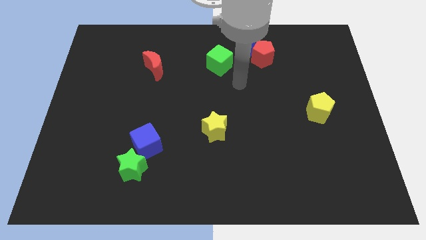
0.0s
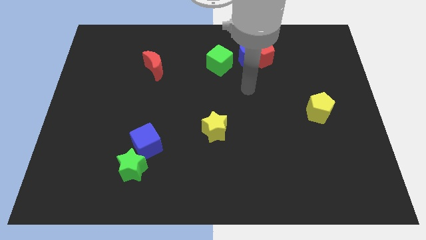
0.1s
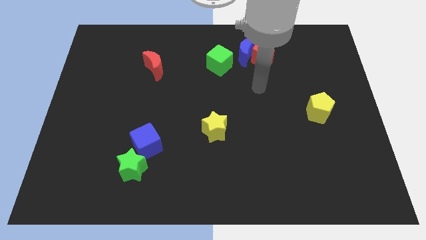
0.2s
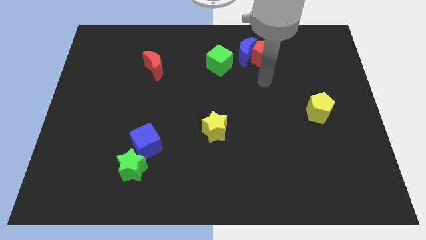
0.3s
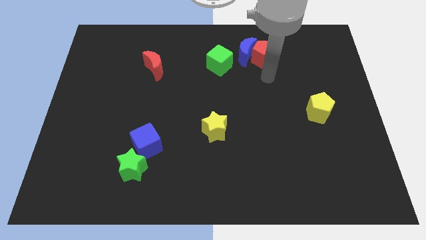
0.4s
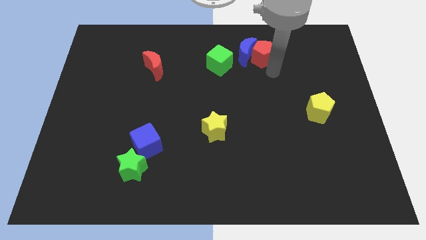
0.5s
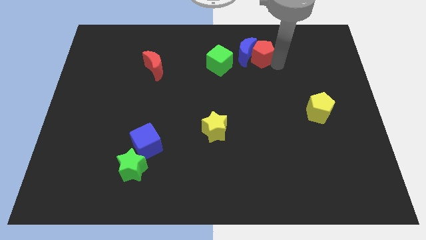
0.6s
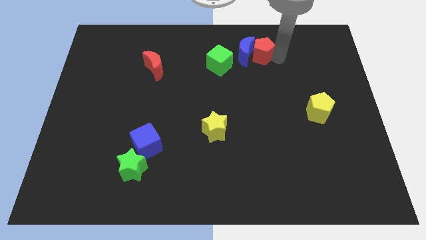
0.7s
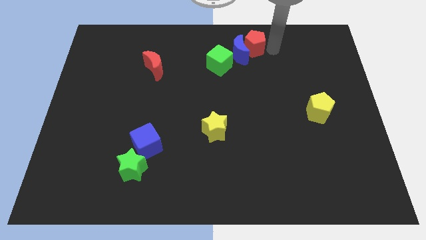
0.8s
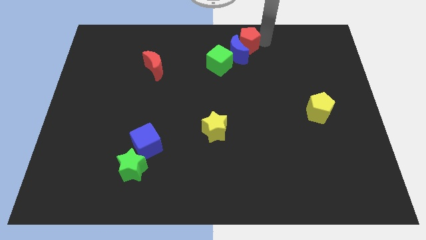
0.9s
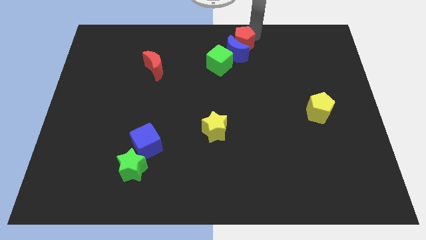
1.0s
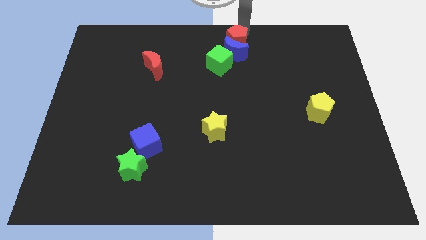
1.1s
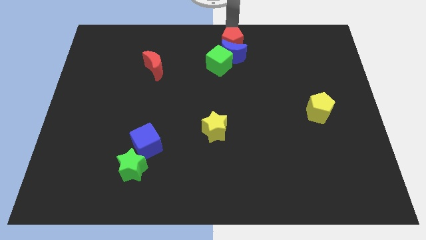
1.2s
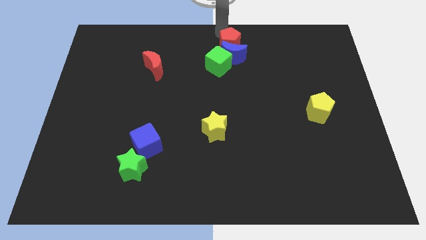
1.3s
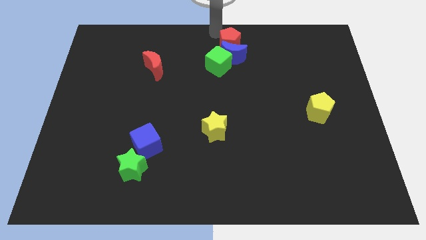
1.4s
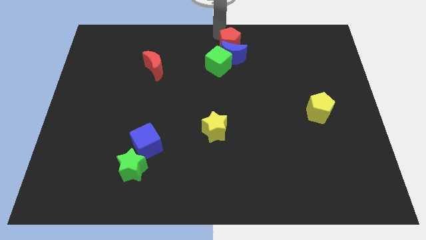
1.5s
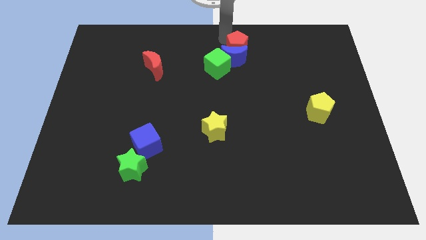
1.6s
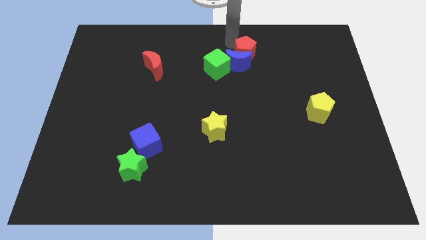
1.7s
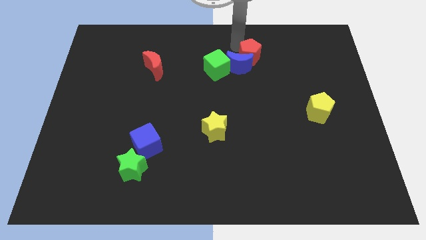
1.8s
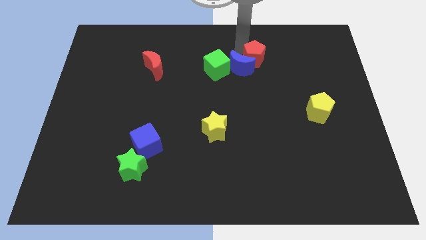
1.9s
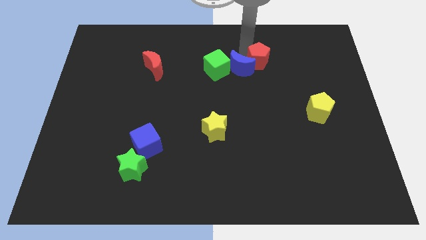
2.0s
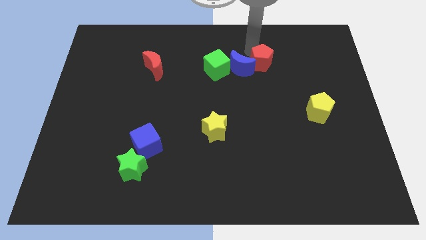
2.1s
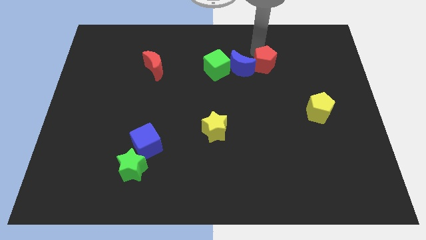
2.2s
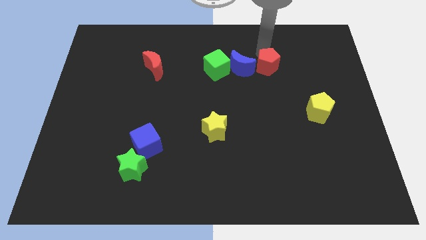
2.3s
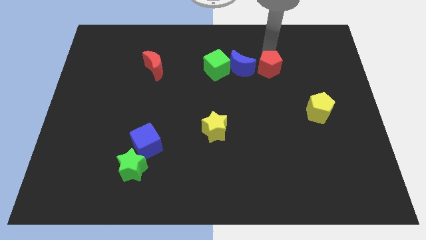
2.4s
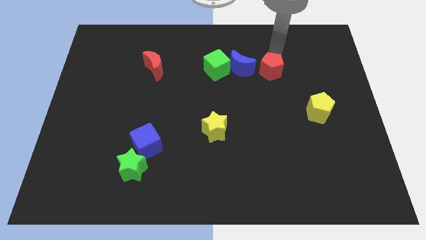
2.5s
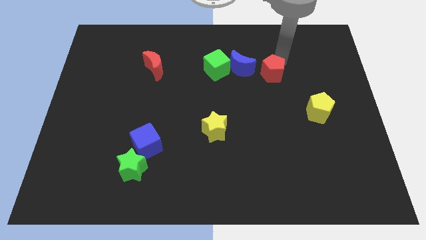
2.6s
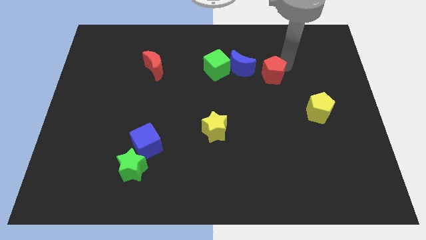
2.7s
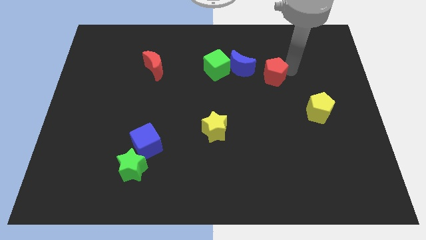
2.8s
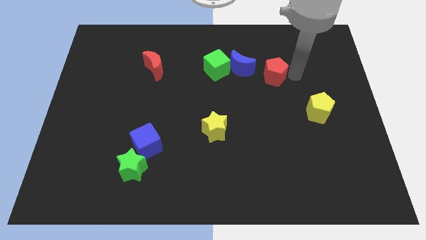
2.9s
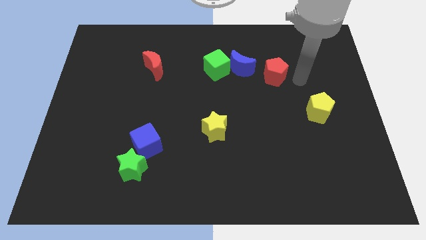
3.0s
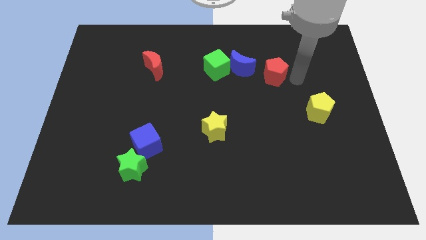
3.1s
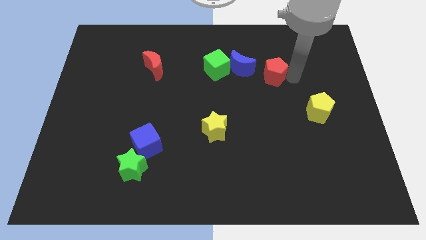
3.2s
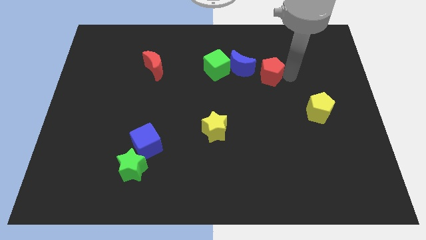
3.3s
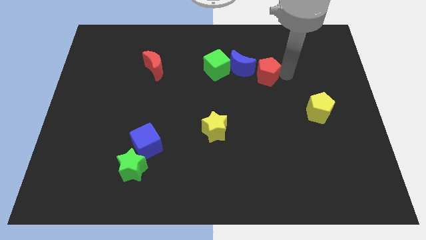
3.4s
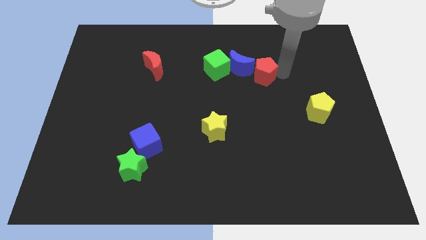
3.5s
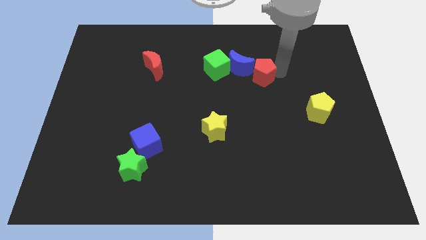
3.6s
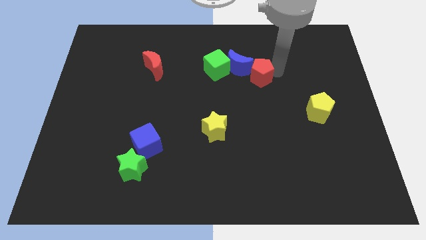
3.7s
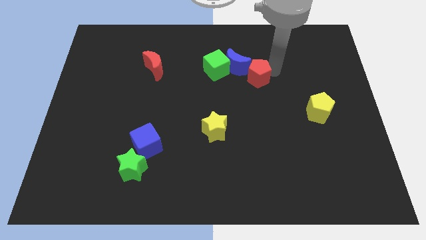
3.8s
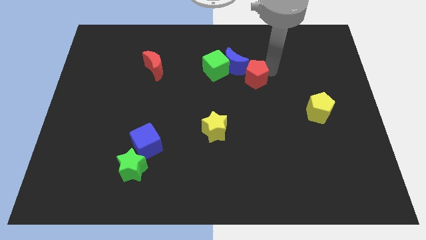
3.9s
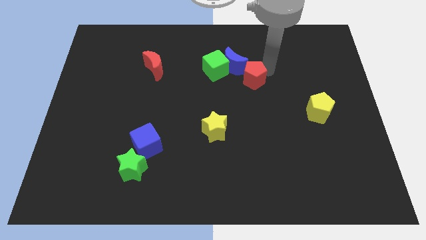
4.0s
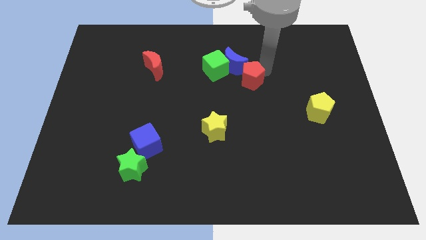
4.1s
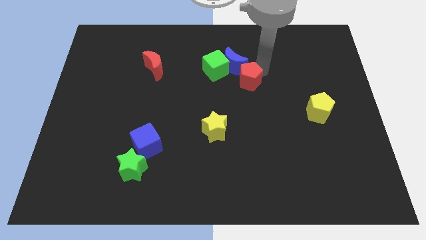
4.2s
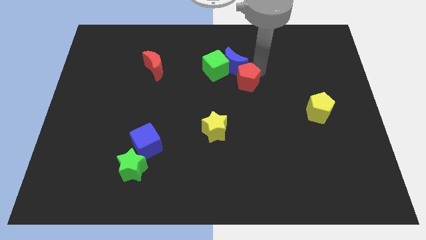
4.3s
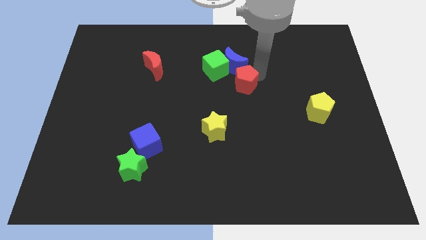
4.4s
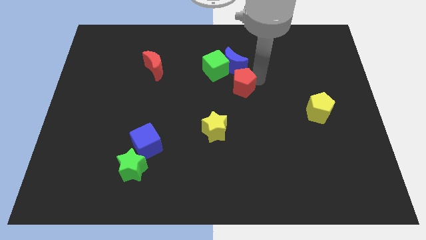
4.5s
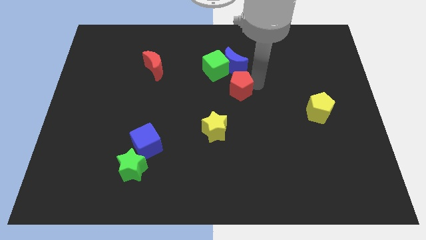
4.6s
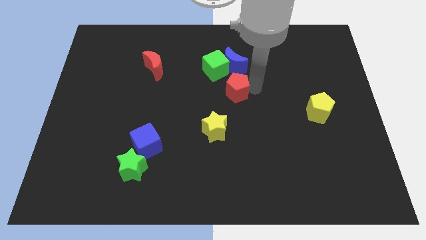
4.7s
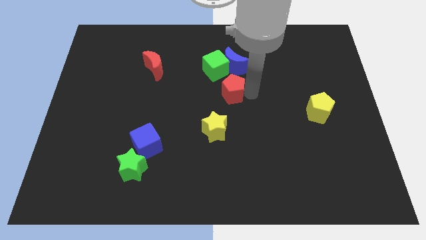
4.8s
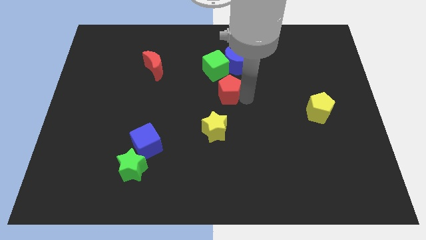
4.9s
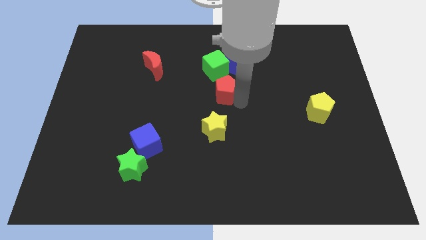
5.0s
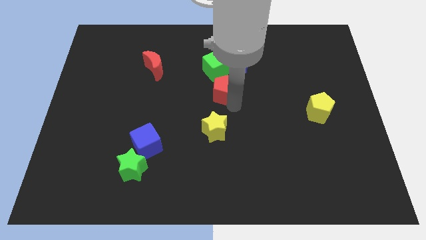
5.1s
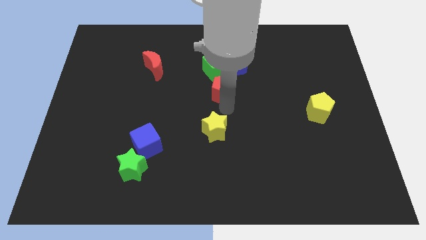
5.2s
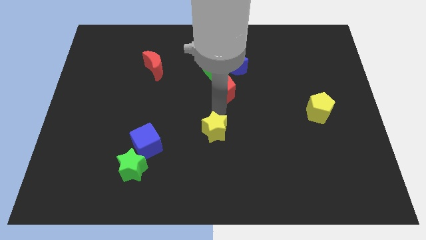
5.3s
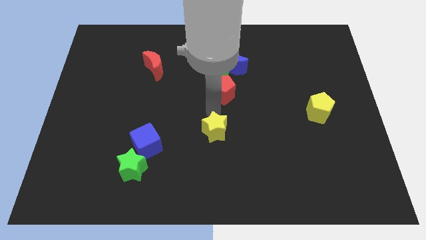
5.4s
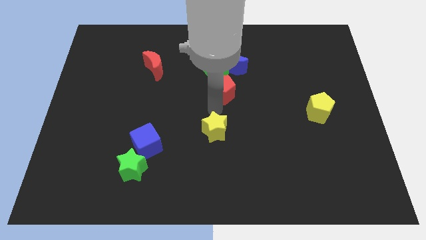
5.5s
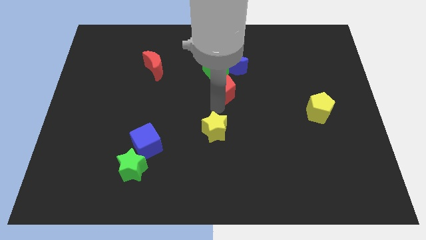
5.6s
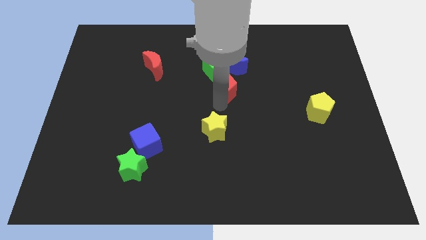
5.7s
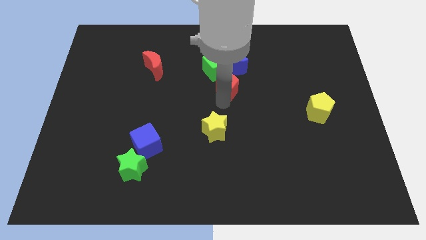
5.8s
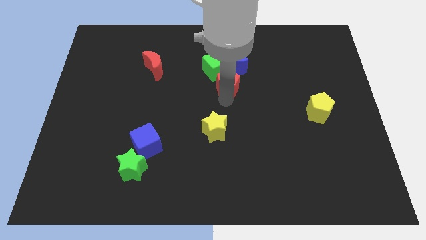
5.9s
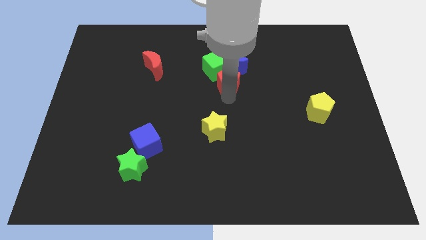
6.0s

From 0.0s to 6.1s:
slide the red pentagon to the green cube

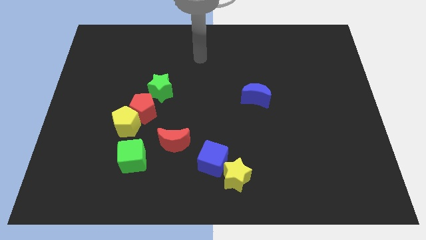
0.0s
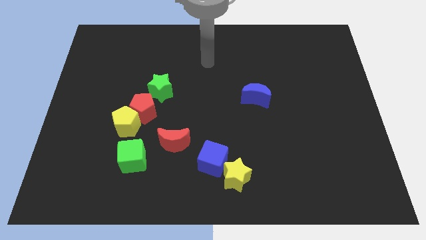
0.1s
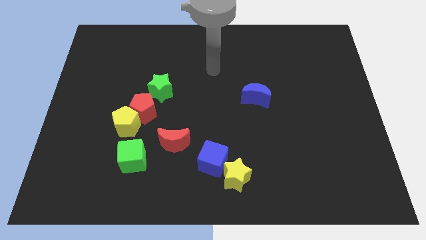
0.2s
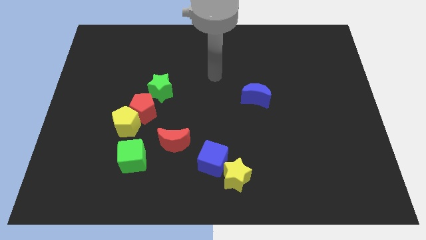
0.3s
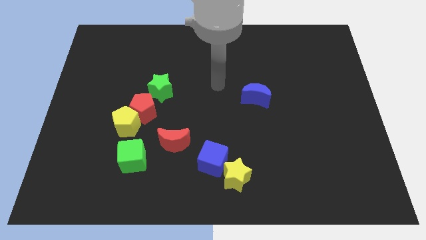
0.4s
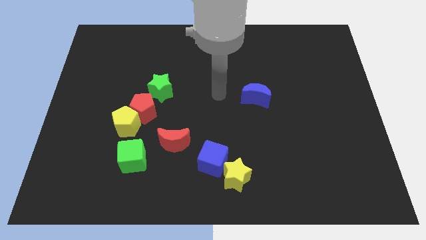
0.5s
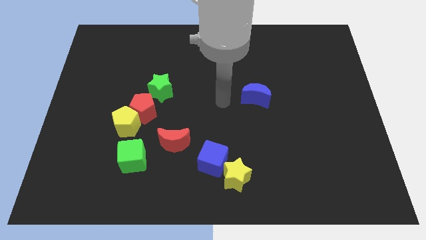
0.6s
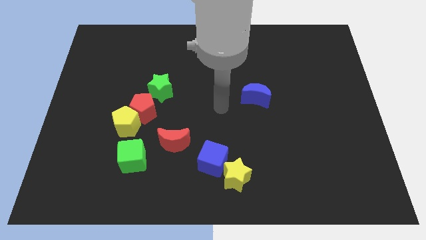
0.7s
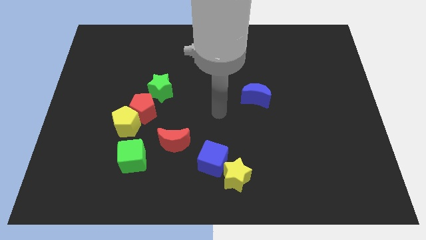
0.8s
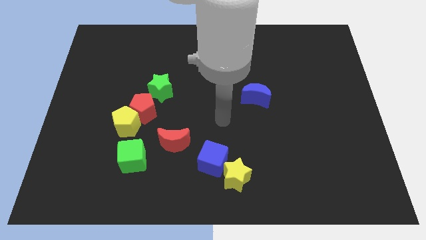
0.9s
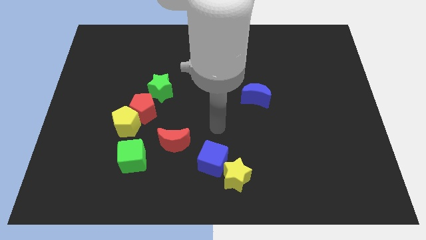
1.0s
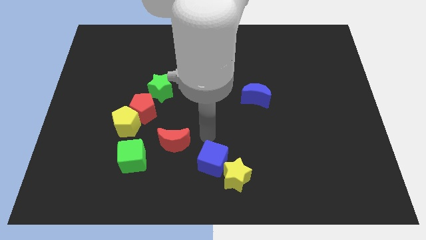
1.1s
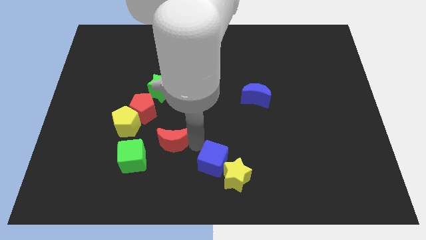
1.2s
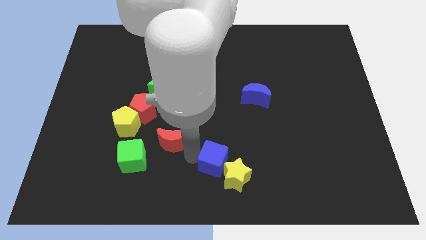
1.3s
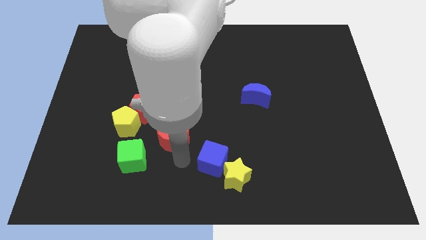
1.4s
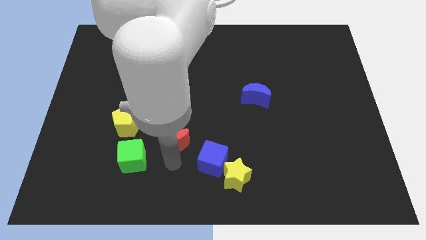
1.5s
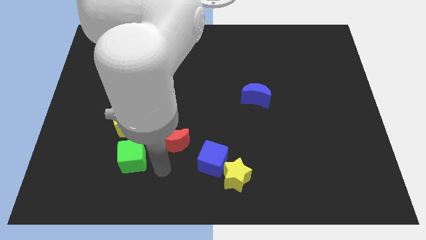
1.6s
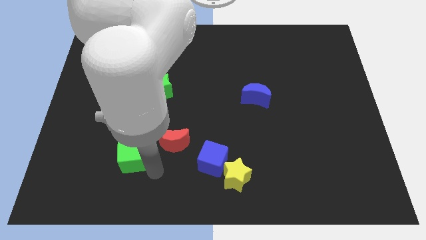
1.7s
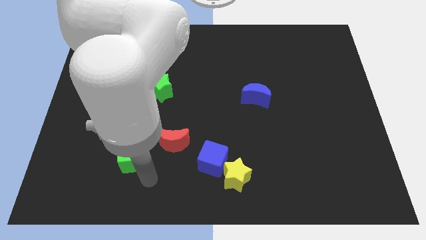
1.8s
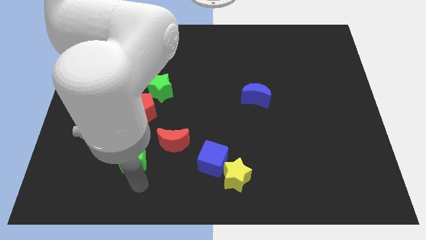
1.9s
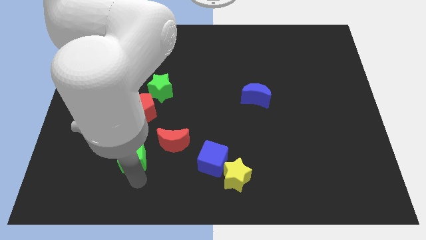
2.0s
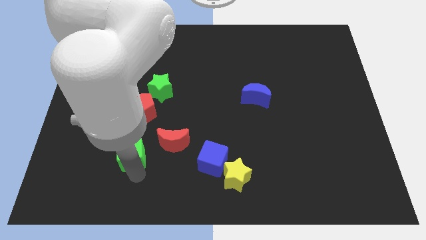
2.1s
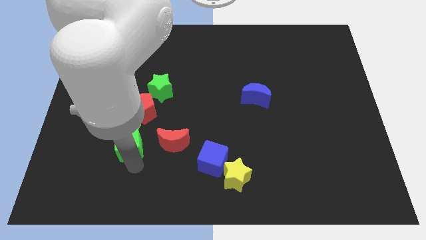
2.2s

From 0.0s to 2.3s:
move the green cube close to the yellow pentagon
